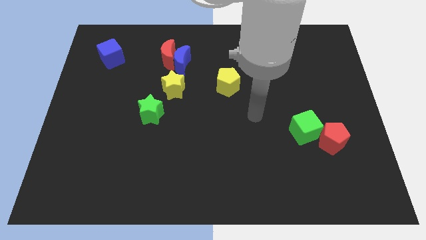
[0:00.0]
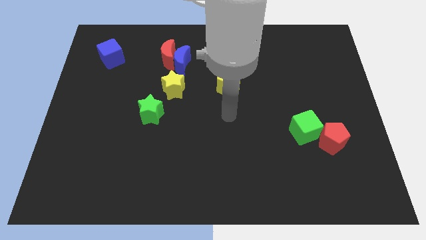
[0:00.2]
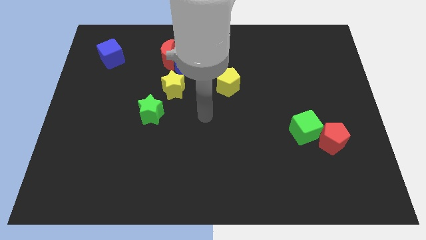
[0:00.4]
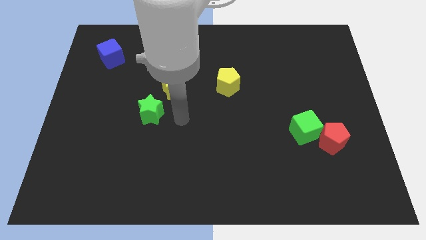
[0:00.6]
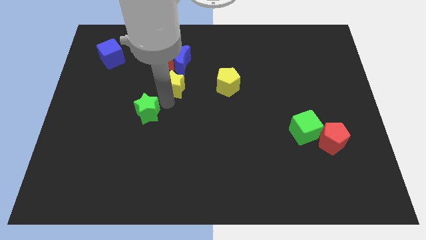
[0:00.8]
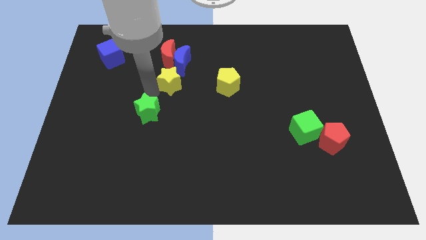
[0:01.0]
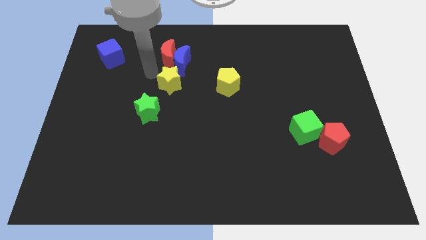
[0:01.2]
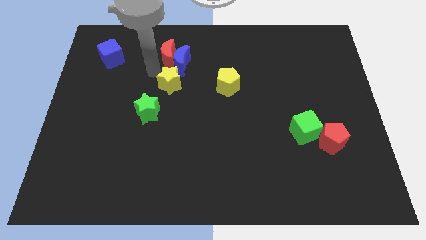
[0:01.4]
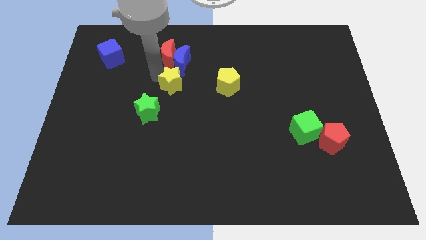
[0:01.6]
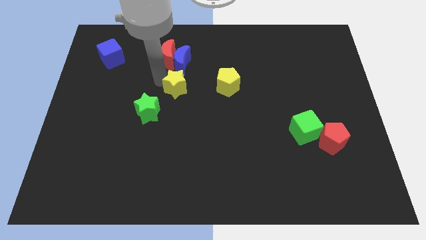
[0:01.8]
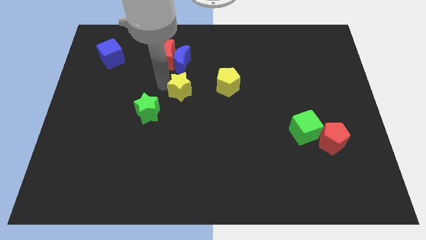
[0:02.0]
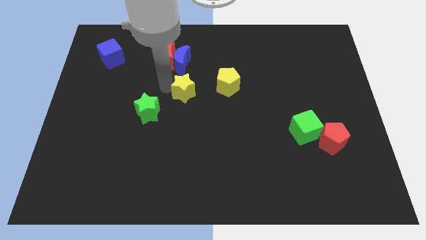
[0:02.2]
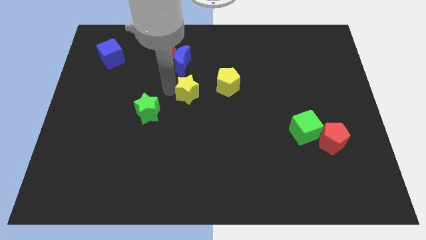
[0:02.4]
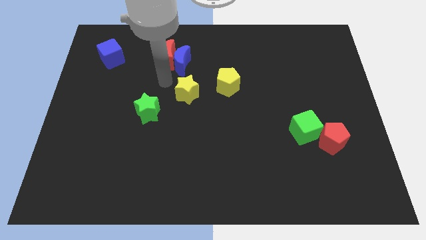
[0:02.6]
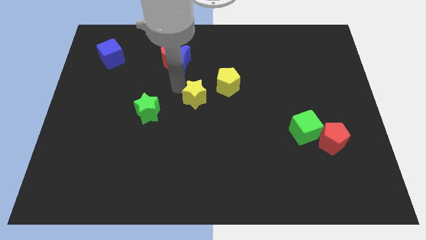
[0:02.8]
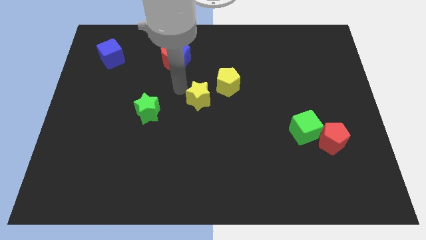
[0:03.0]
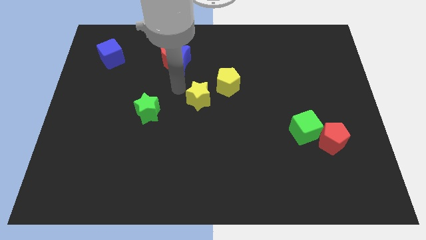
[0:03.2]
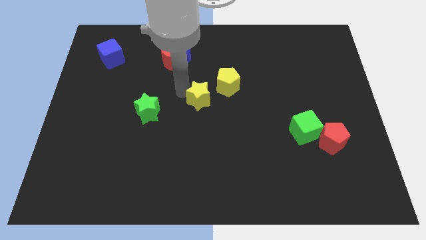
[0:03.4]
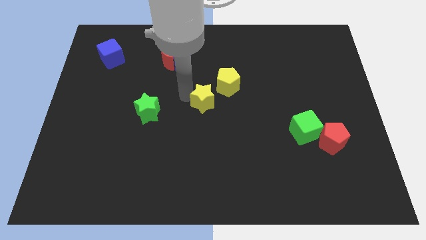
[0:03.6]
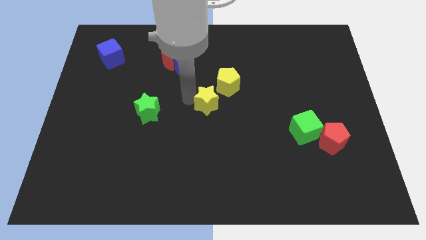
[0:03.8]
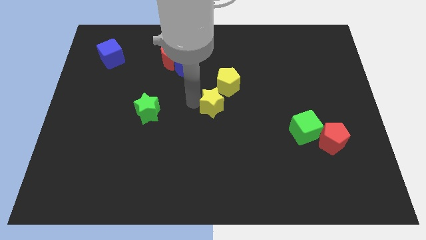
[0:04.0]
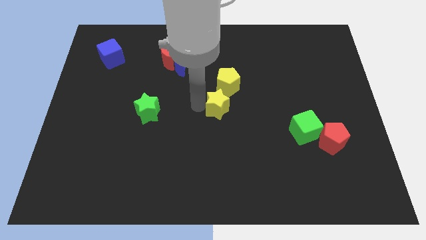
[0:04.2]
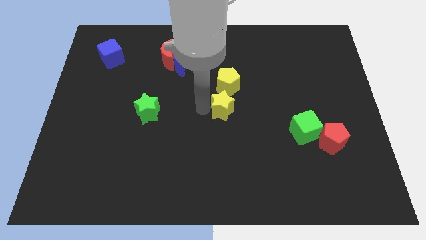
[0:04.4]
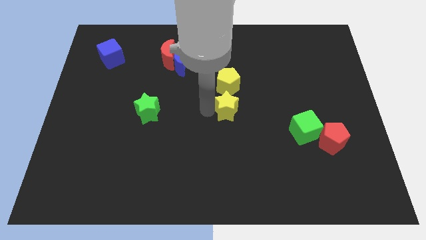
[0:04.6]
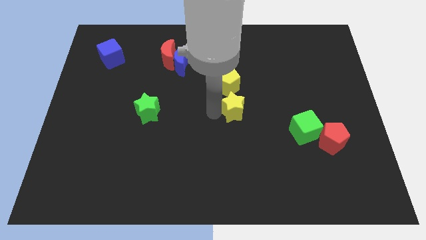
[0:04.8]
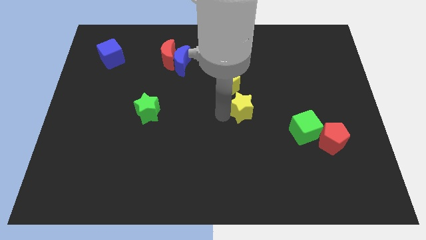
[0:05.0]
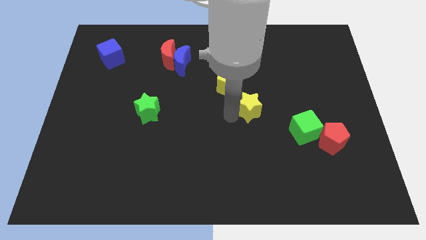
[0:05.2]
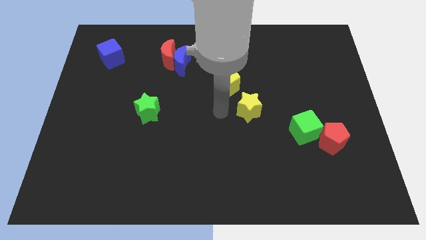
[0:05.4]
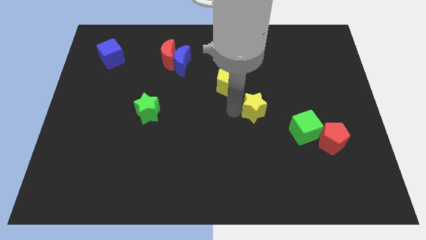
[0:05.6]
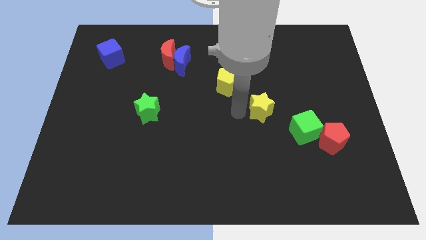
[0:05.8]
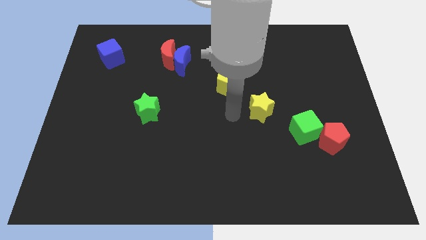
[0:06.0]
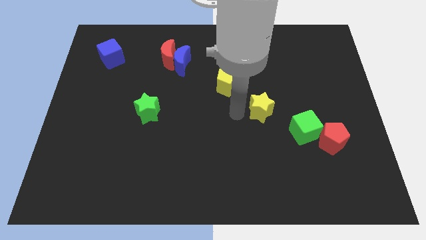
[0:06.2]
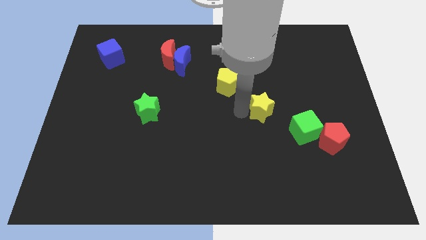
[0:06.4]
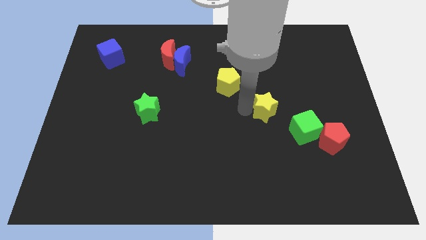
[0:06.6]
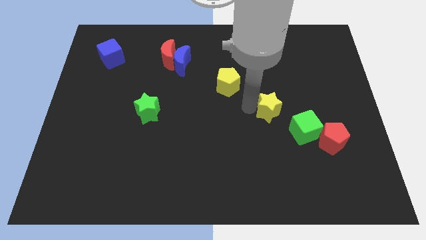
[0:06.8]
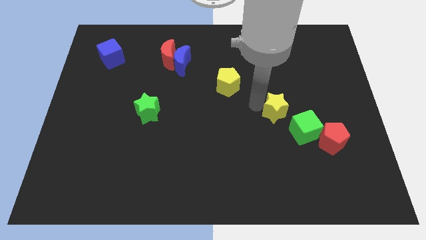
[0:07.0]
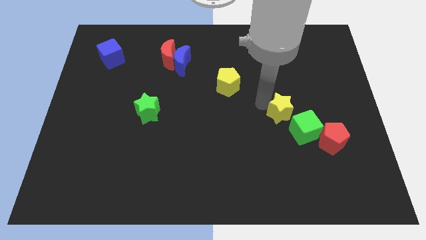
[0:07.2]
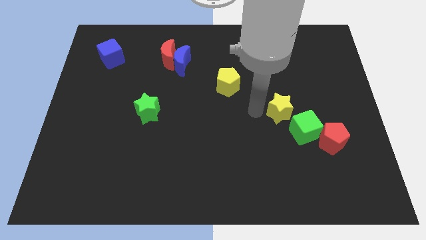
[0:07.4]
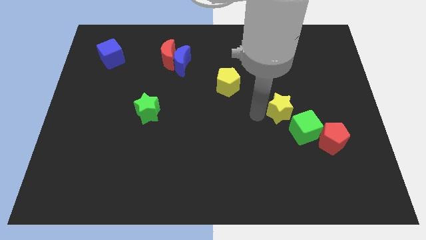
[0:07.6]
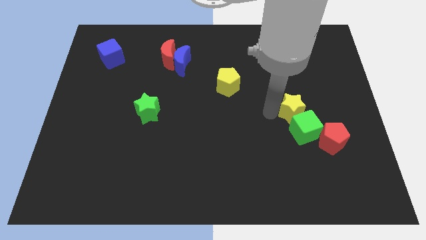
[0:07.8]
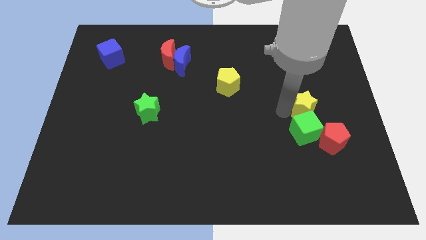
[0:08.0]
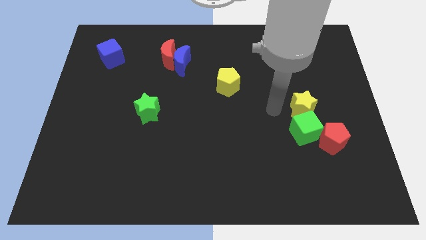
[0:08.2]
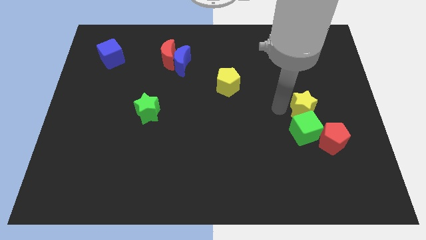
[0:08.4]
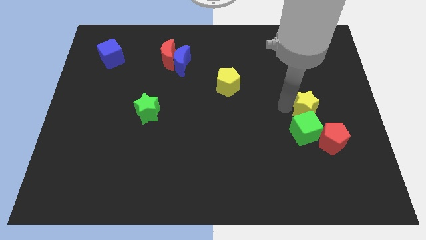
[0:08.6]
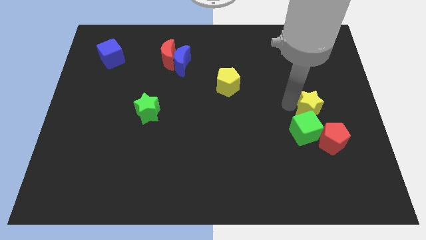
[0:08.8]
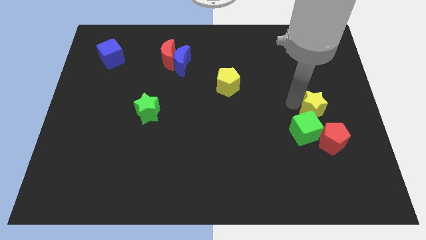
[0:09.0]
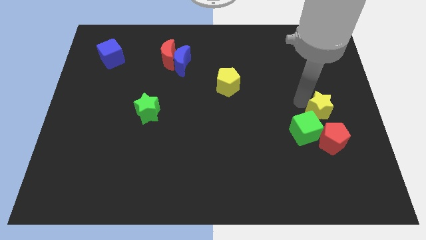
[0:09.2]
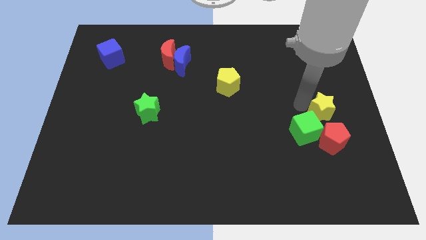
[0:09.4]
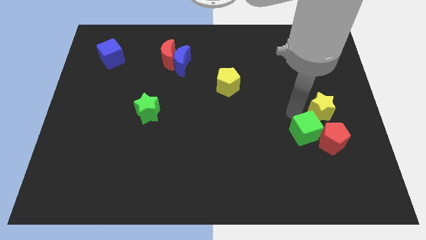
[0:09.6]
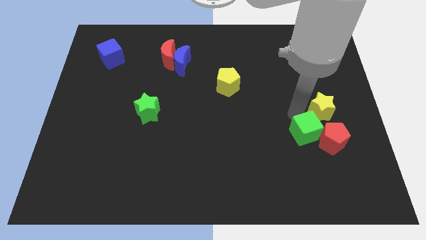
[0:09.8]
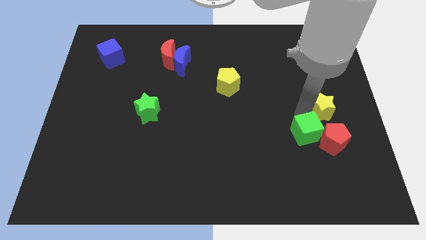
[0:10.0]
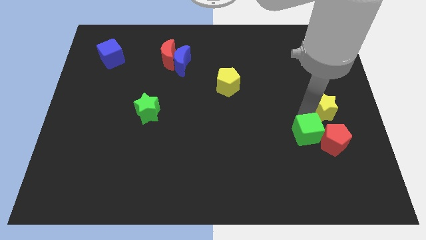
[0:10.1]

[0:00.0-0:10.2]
push the yellow star to the center right
